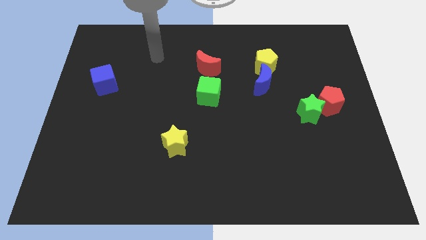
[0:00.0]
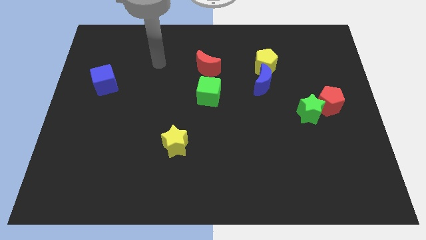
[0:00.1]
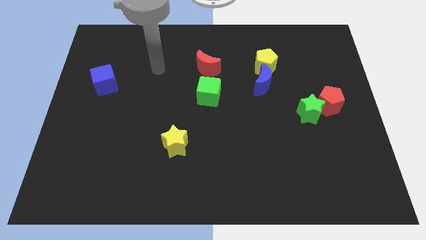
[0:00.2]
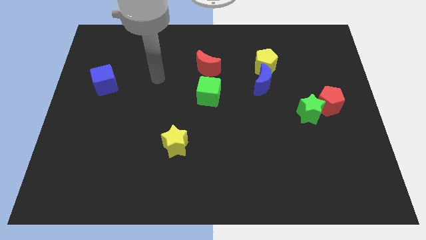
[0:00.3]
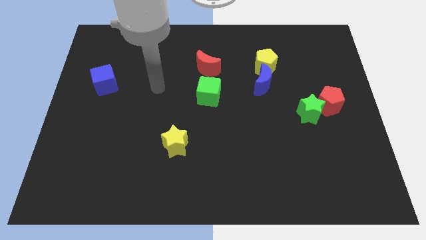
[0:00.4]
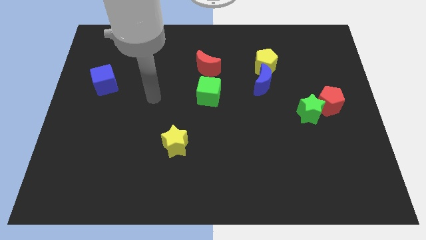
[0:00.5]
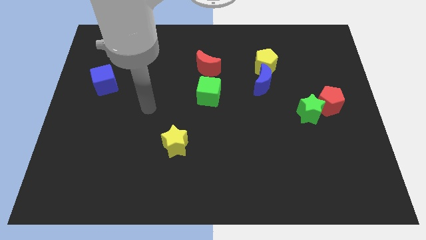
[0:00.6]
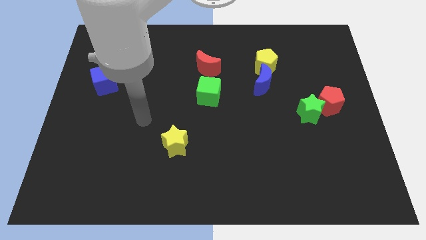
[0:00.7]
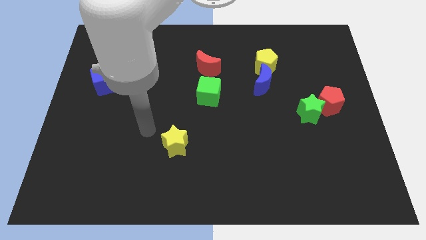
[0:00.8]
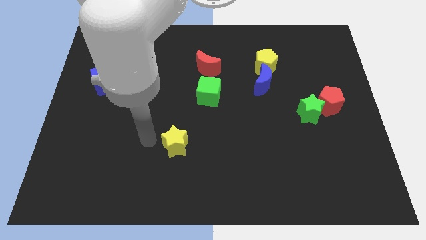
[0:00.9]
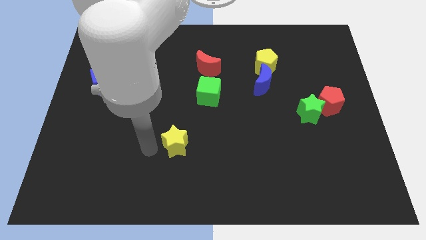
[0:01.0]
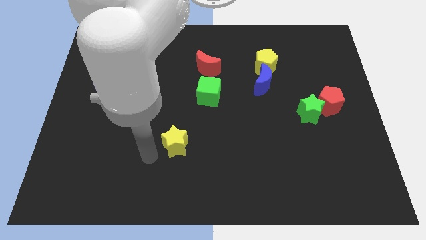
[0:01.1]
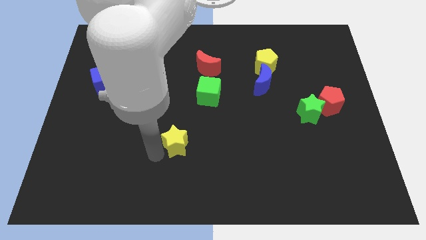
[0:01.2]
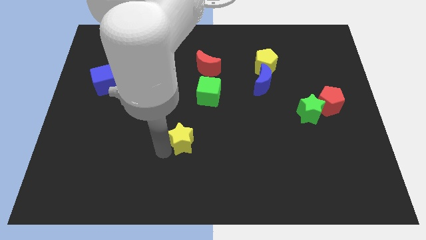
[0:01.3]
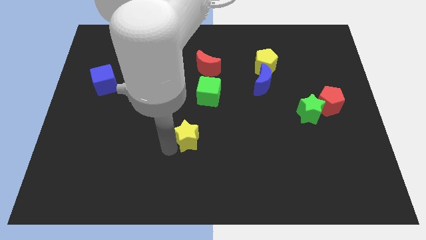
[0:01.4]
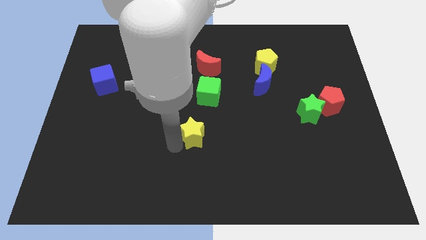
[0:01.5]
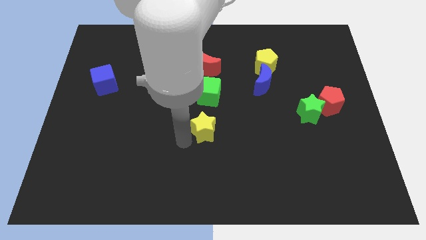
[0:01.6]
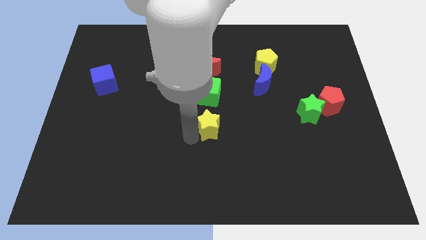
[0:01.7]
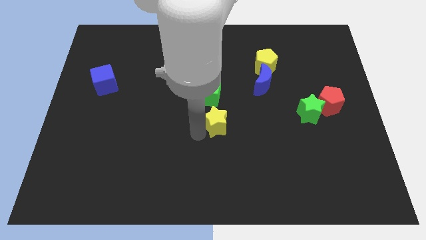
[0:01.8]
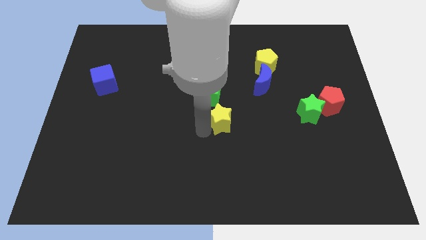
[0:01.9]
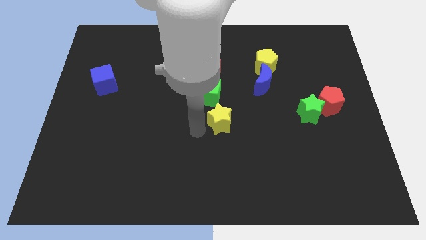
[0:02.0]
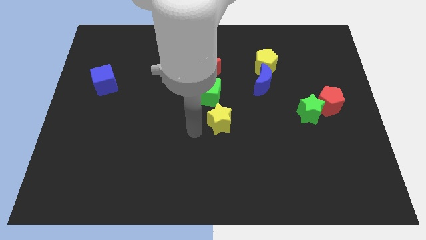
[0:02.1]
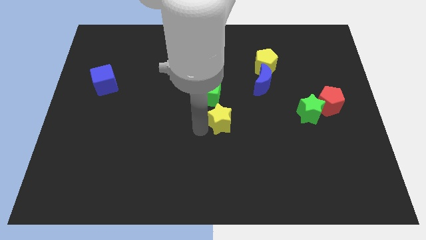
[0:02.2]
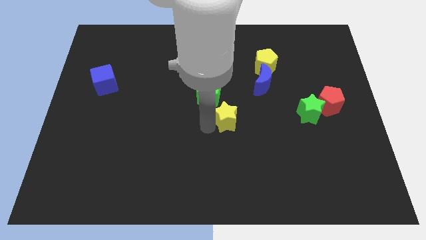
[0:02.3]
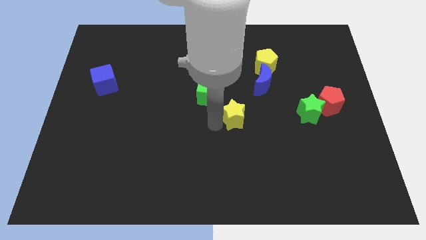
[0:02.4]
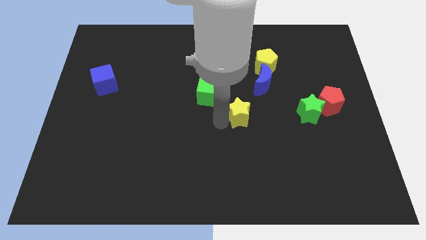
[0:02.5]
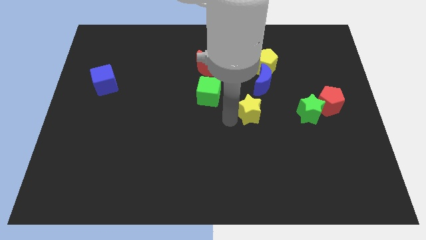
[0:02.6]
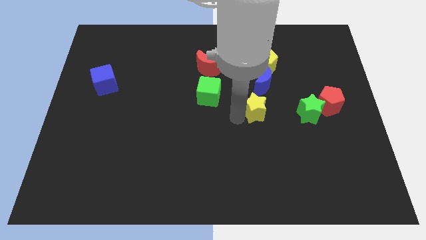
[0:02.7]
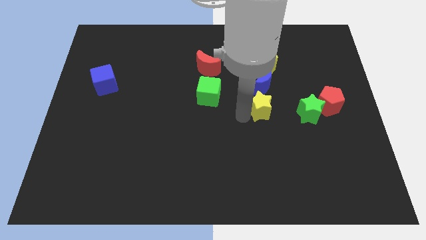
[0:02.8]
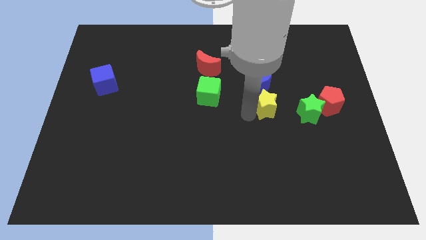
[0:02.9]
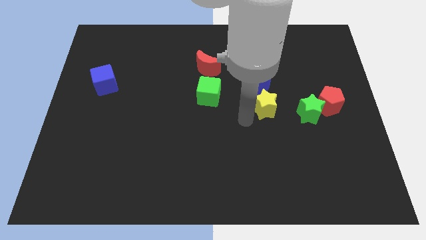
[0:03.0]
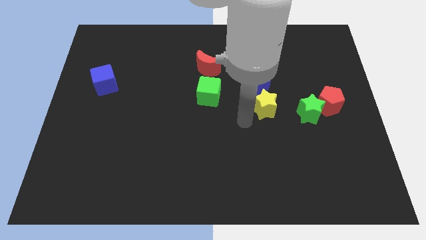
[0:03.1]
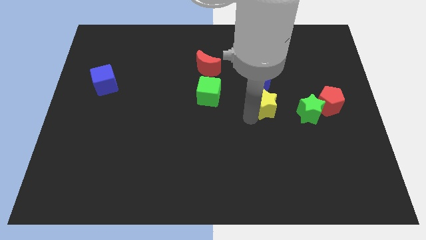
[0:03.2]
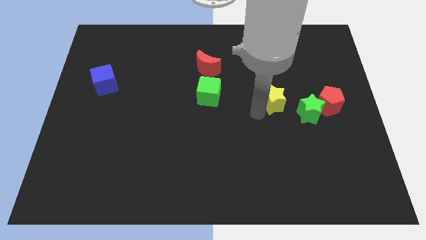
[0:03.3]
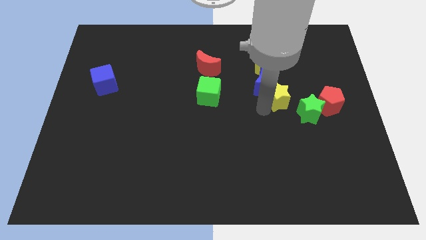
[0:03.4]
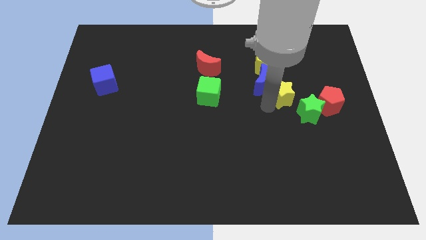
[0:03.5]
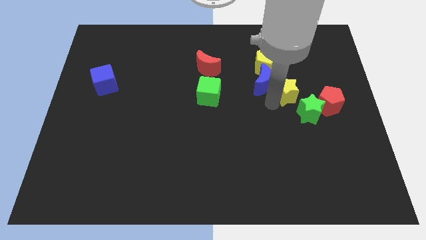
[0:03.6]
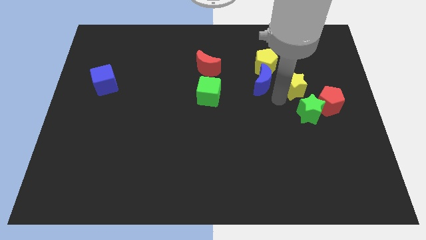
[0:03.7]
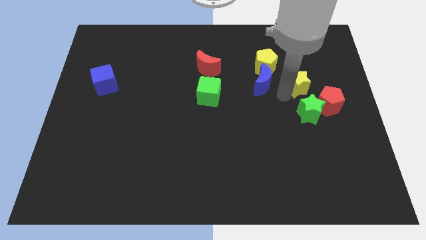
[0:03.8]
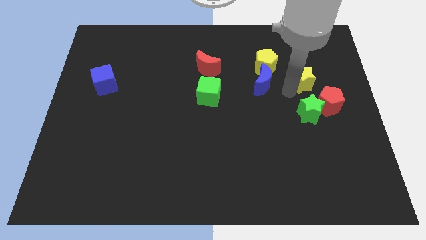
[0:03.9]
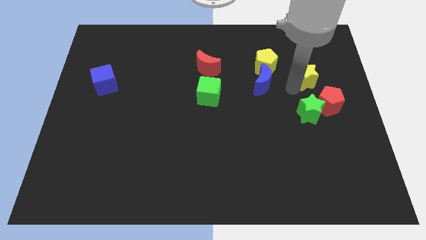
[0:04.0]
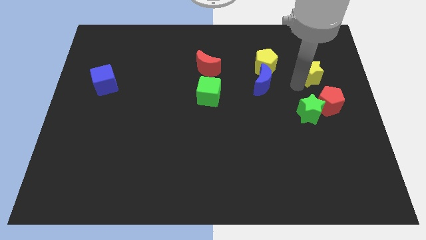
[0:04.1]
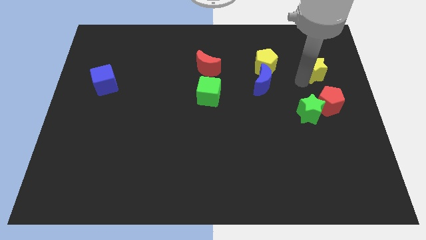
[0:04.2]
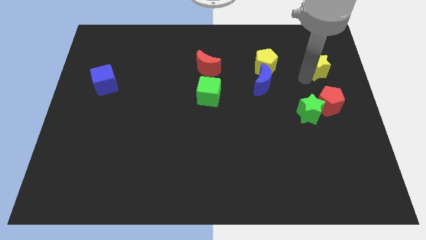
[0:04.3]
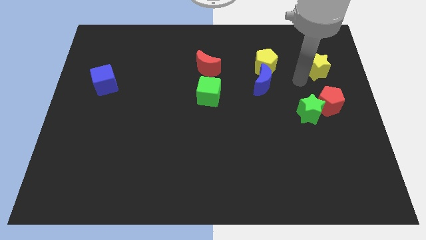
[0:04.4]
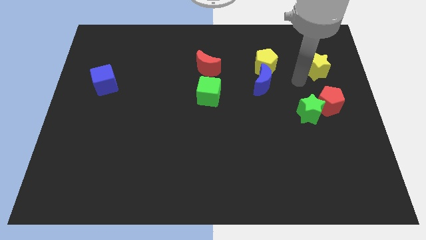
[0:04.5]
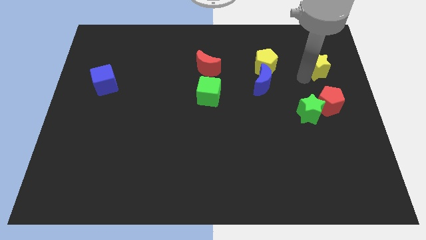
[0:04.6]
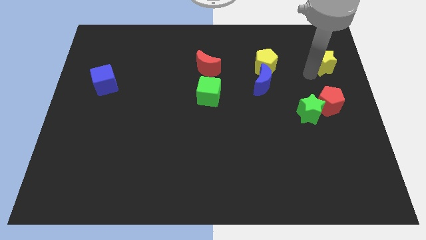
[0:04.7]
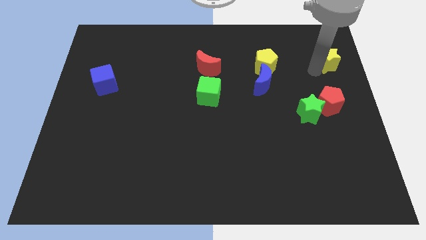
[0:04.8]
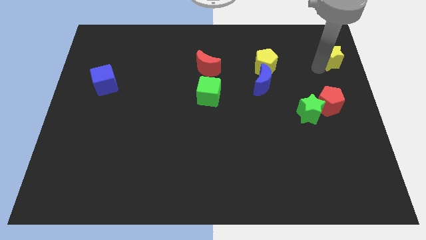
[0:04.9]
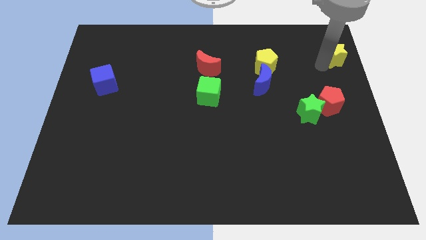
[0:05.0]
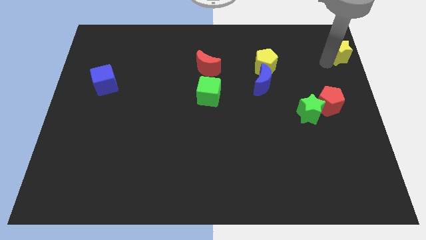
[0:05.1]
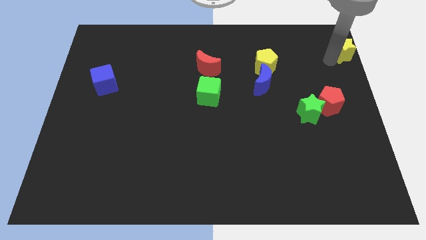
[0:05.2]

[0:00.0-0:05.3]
slide the yellow star to the upper right corner
